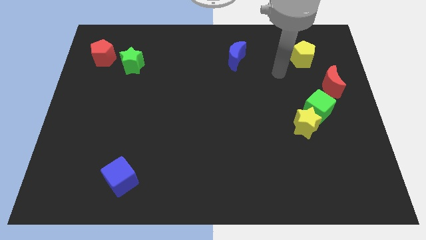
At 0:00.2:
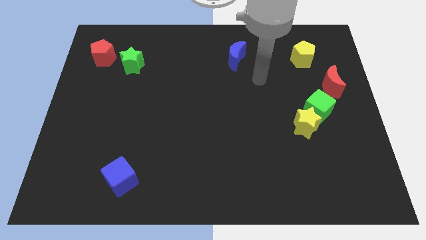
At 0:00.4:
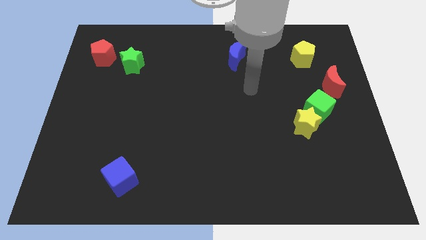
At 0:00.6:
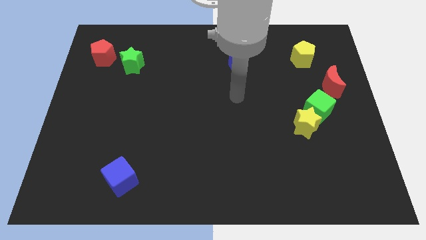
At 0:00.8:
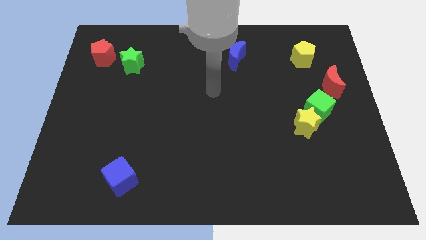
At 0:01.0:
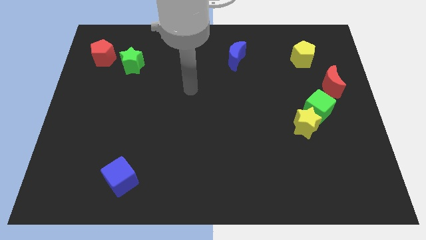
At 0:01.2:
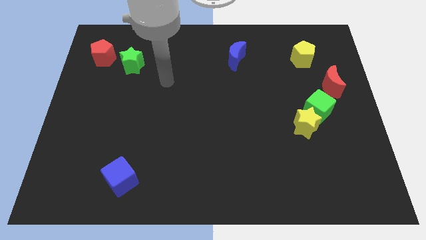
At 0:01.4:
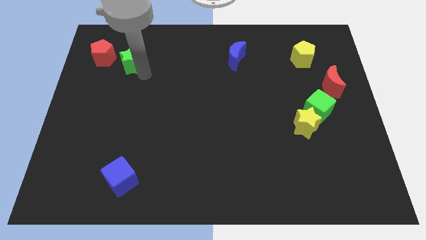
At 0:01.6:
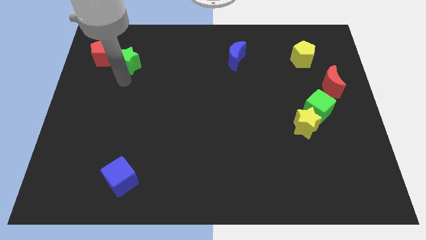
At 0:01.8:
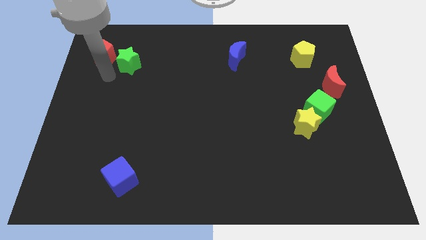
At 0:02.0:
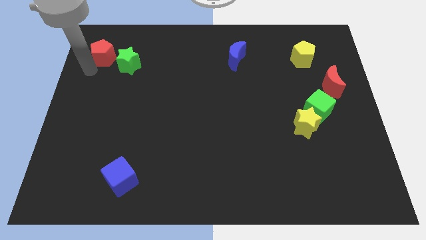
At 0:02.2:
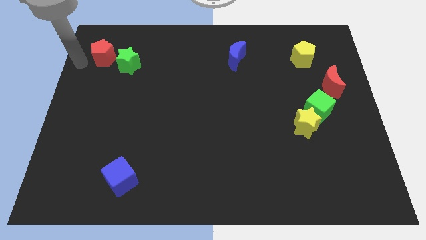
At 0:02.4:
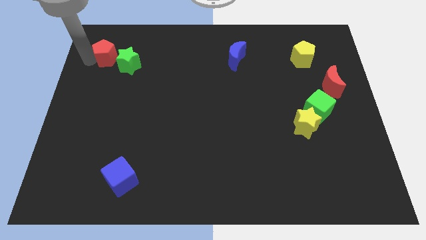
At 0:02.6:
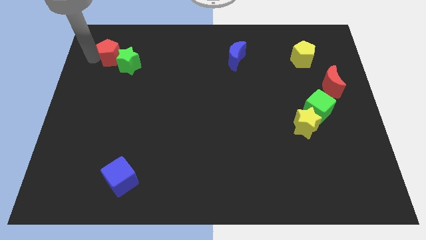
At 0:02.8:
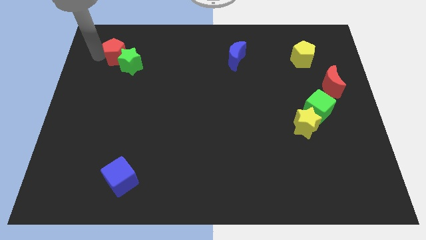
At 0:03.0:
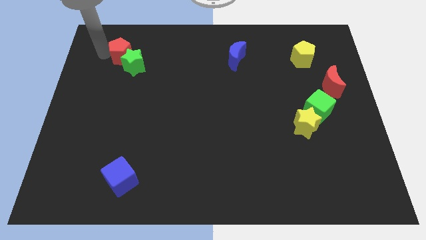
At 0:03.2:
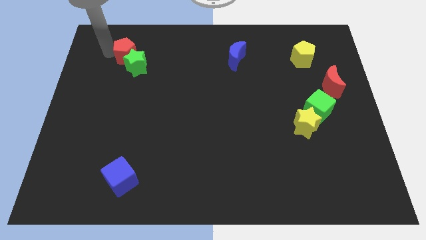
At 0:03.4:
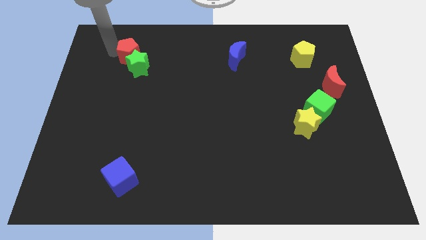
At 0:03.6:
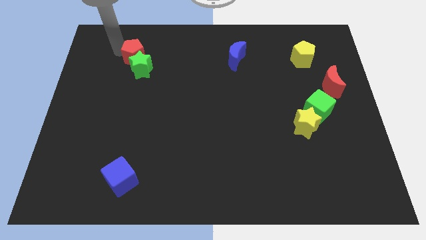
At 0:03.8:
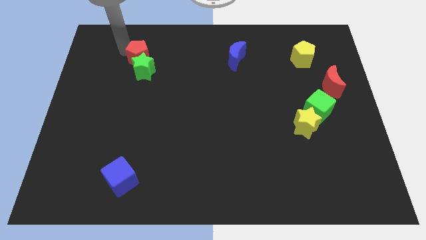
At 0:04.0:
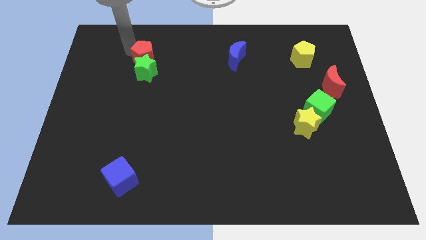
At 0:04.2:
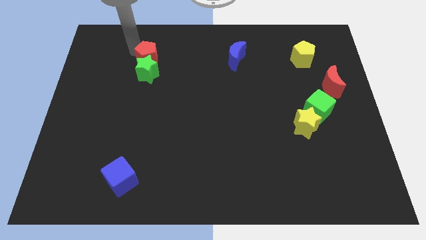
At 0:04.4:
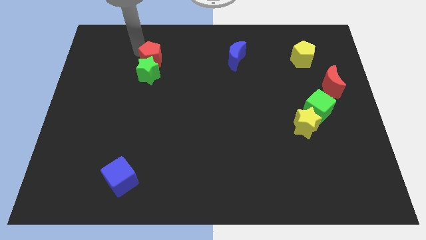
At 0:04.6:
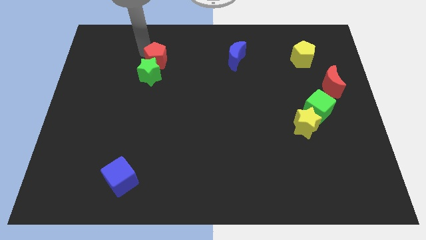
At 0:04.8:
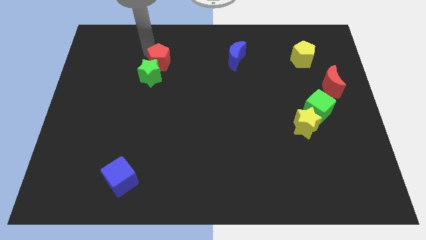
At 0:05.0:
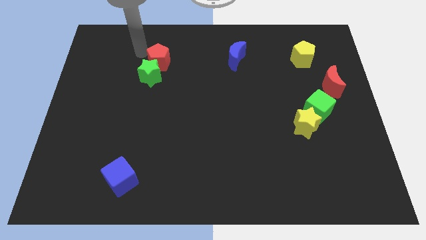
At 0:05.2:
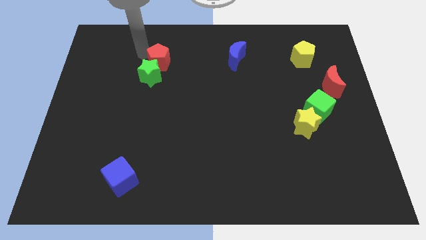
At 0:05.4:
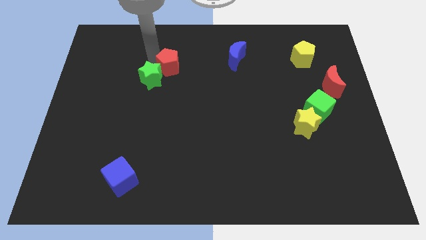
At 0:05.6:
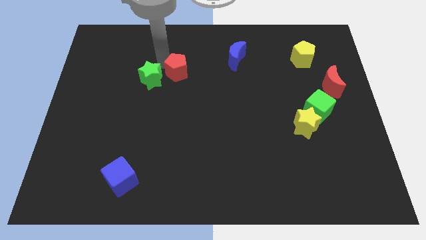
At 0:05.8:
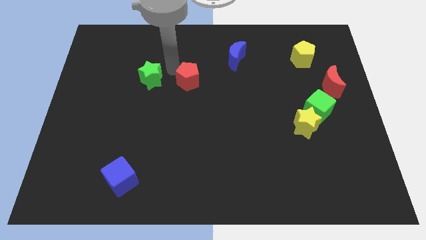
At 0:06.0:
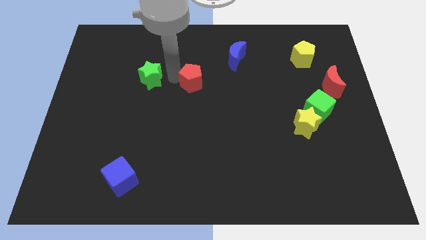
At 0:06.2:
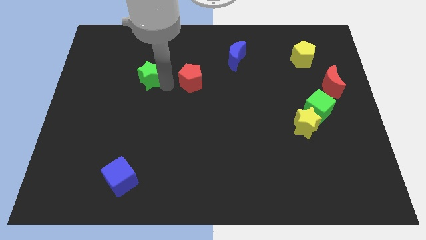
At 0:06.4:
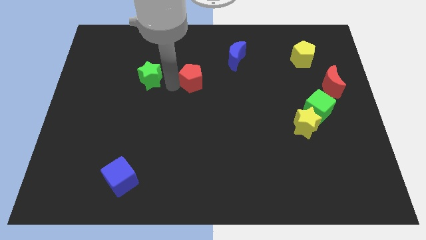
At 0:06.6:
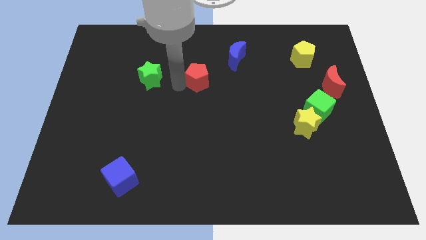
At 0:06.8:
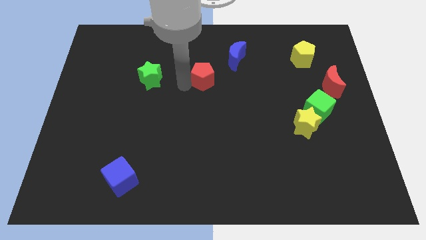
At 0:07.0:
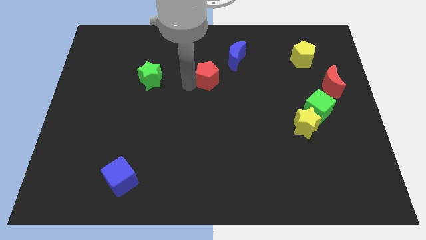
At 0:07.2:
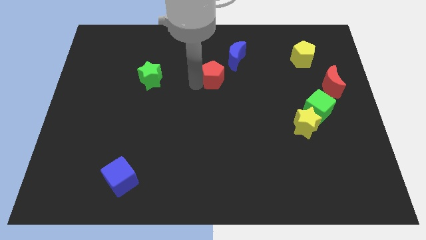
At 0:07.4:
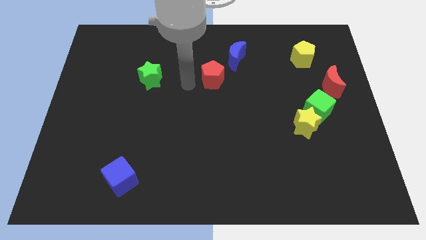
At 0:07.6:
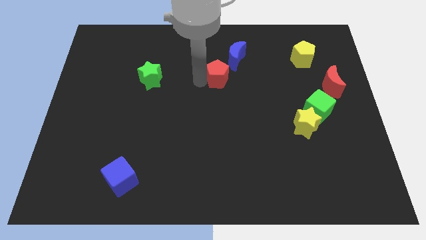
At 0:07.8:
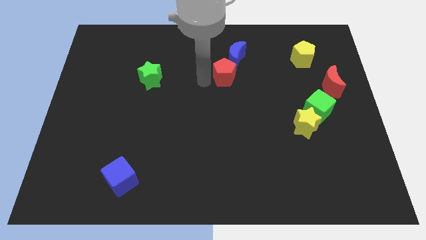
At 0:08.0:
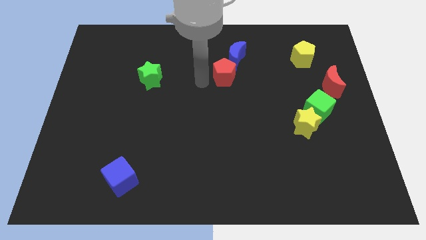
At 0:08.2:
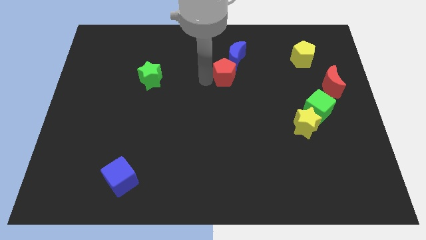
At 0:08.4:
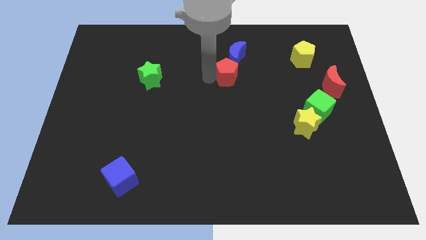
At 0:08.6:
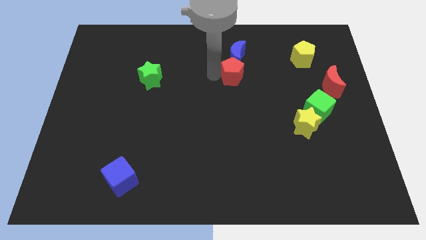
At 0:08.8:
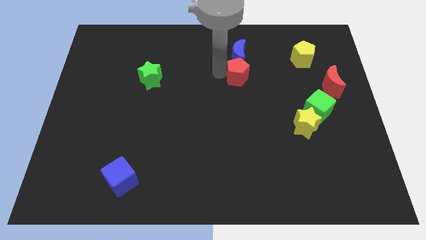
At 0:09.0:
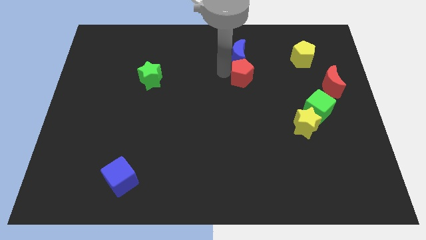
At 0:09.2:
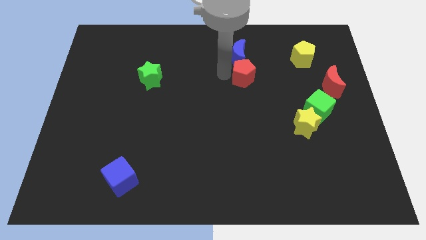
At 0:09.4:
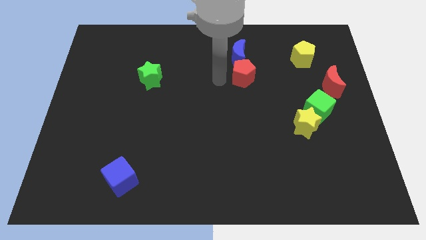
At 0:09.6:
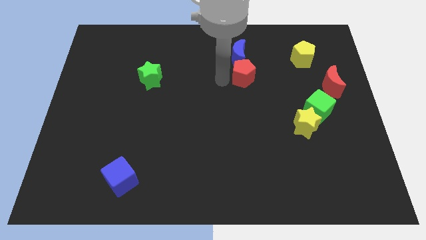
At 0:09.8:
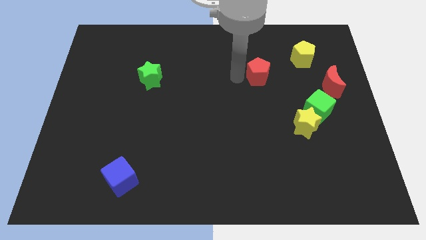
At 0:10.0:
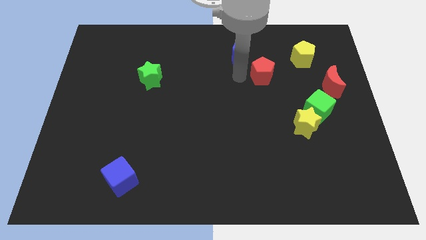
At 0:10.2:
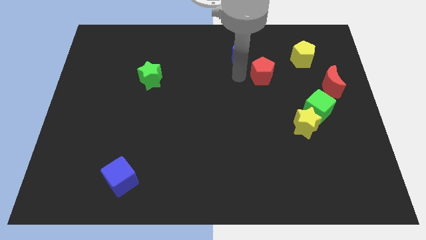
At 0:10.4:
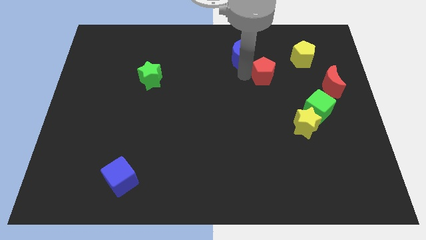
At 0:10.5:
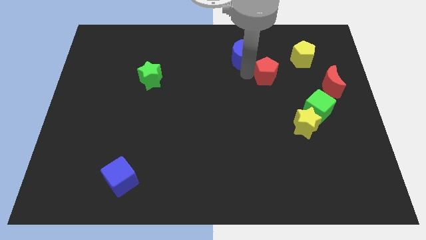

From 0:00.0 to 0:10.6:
move the red pentagon to the bottom left of the yellow pentagon

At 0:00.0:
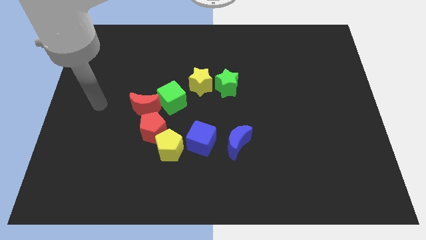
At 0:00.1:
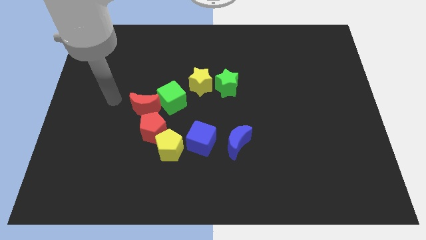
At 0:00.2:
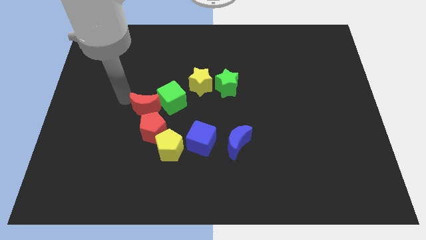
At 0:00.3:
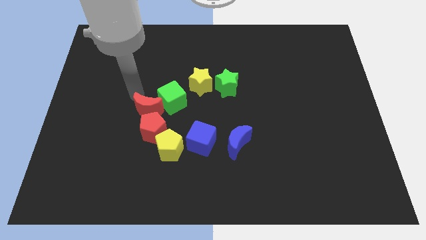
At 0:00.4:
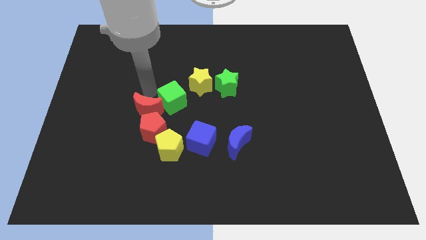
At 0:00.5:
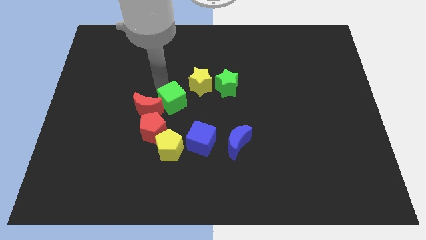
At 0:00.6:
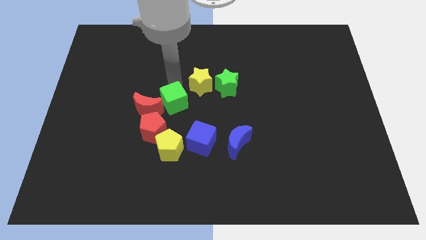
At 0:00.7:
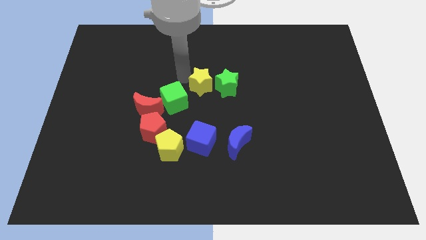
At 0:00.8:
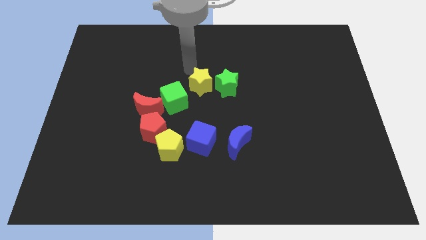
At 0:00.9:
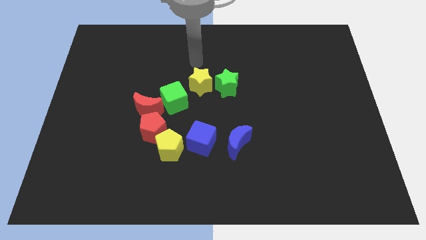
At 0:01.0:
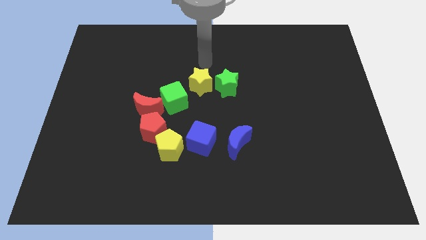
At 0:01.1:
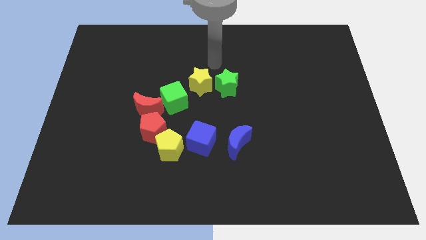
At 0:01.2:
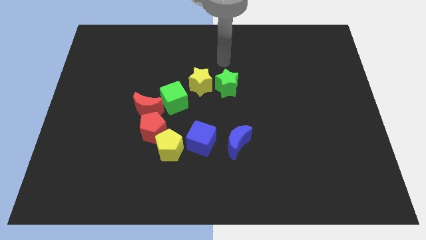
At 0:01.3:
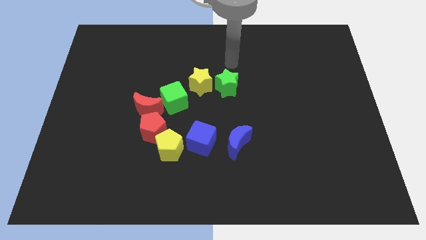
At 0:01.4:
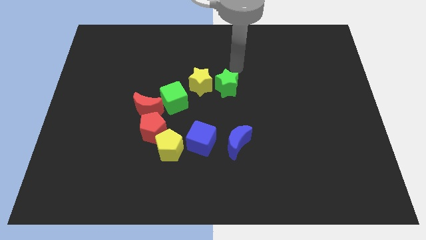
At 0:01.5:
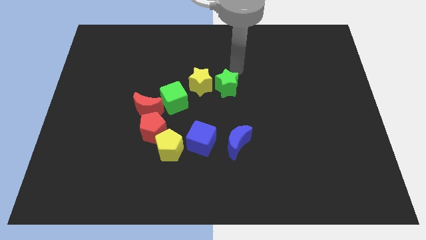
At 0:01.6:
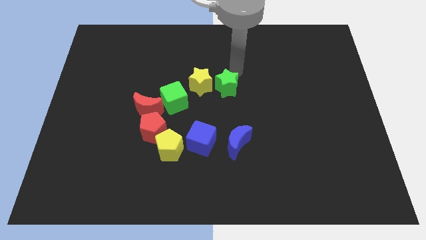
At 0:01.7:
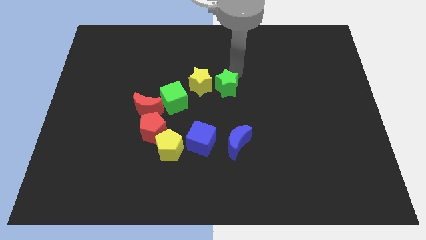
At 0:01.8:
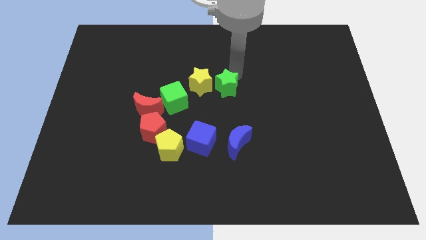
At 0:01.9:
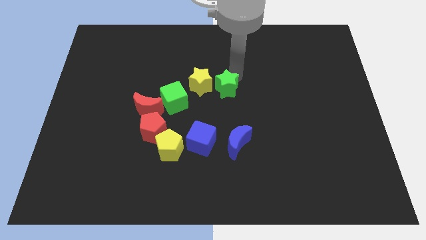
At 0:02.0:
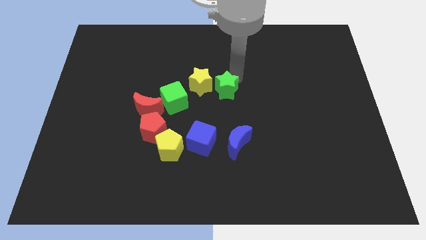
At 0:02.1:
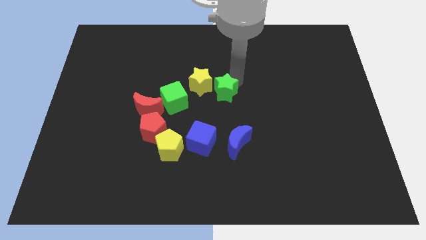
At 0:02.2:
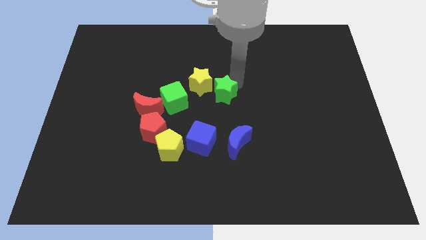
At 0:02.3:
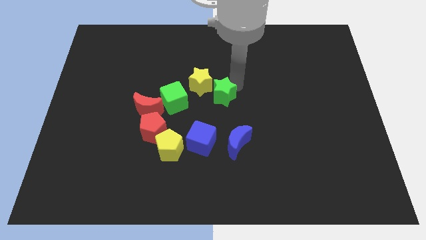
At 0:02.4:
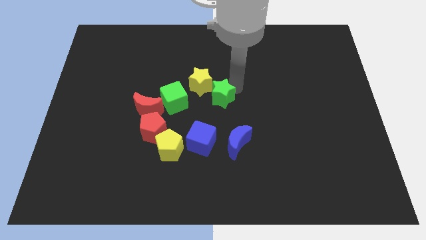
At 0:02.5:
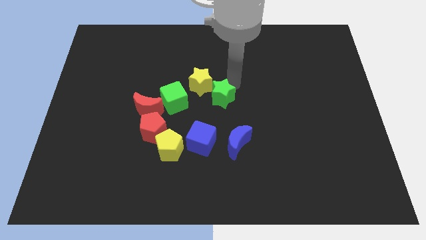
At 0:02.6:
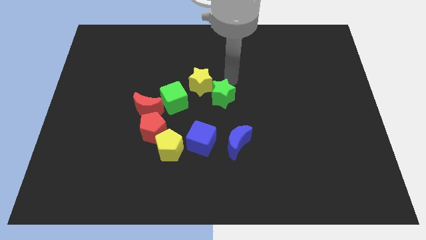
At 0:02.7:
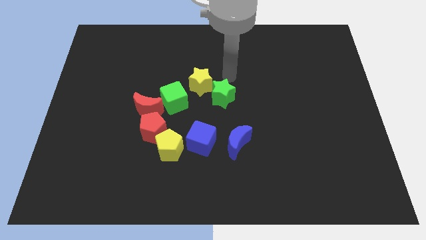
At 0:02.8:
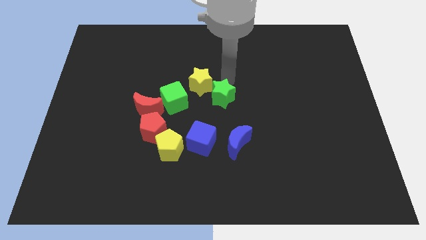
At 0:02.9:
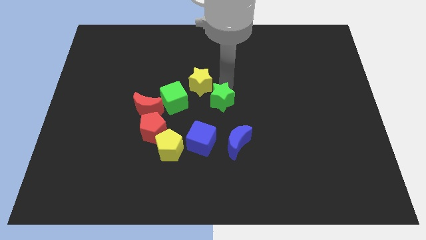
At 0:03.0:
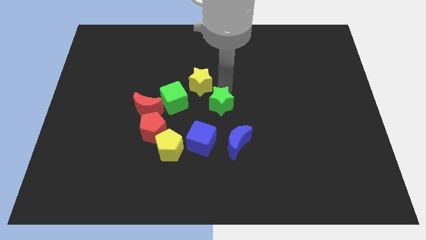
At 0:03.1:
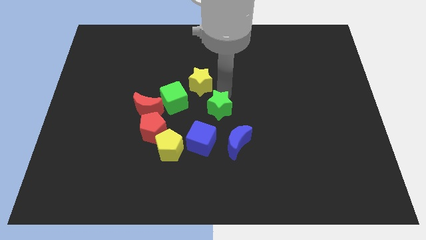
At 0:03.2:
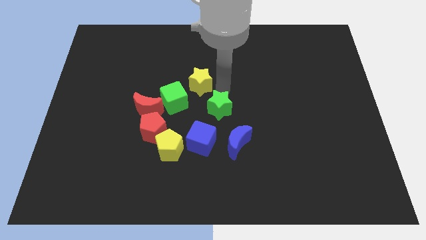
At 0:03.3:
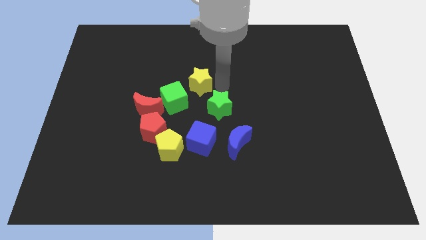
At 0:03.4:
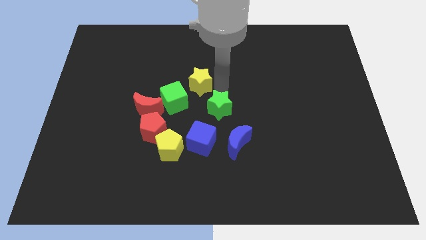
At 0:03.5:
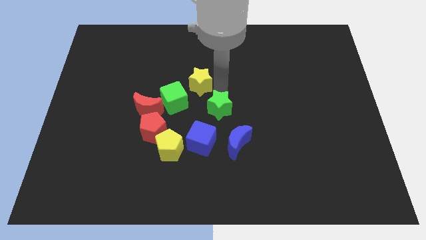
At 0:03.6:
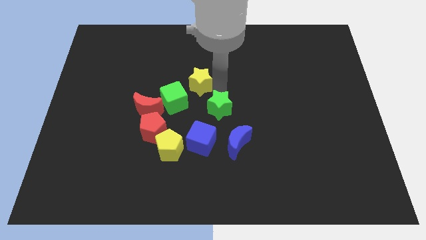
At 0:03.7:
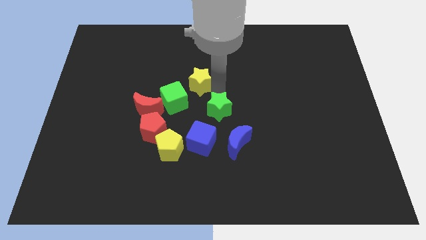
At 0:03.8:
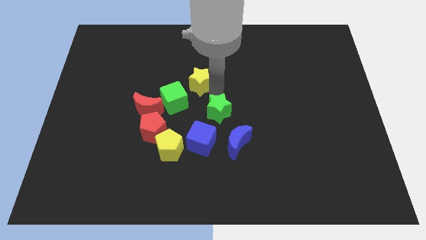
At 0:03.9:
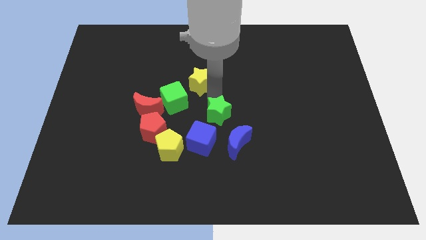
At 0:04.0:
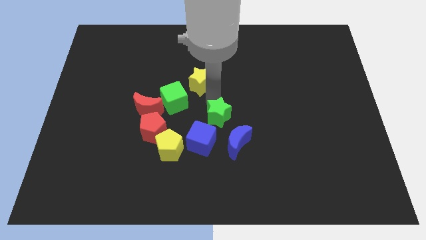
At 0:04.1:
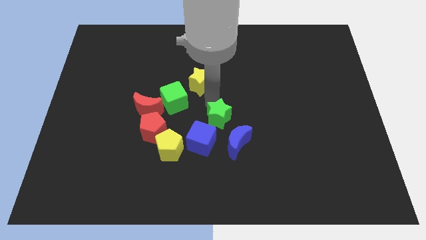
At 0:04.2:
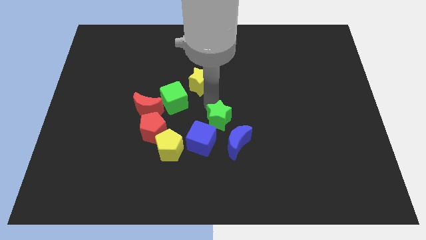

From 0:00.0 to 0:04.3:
put the green star just right of the red pentagon
